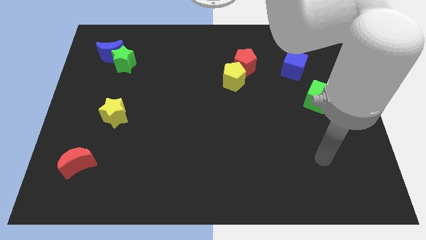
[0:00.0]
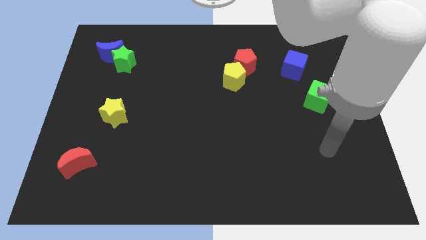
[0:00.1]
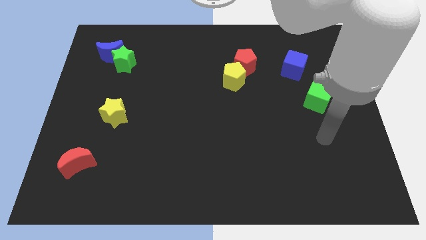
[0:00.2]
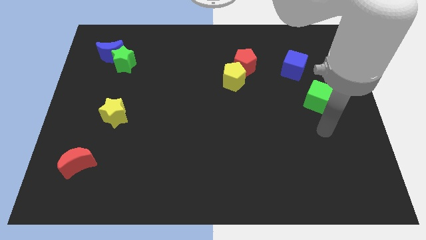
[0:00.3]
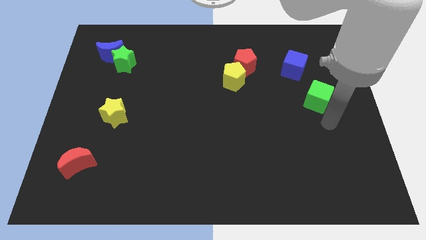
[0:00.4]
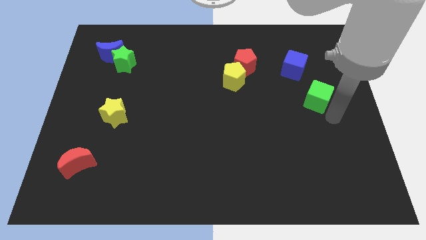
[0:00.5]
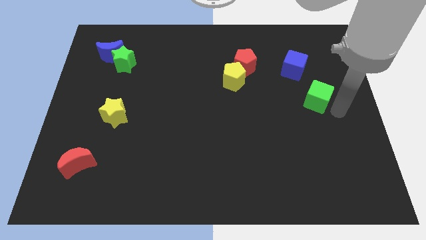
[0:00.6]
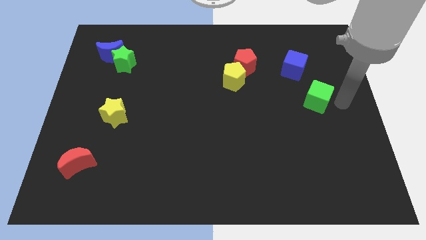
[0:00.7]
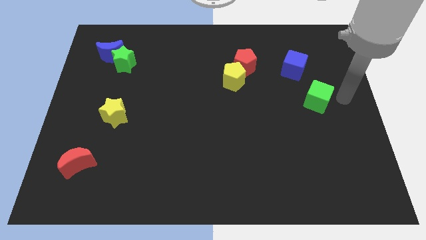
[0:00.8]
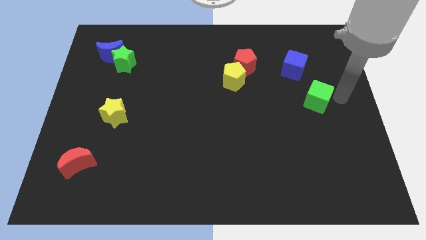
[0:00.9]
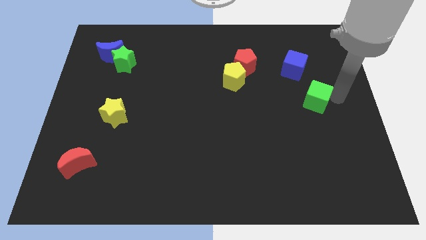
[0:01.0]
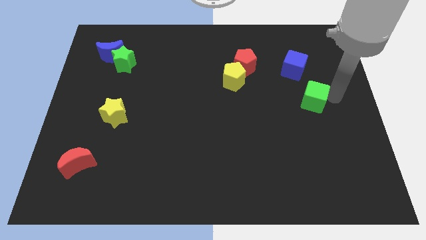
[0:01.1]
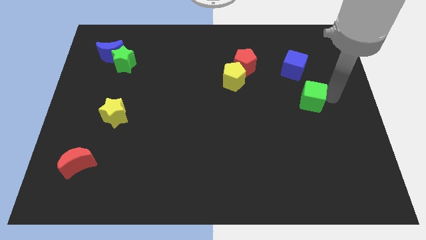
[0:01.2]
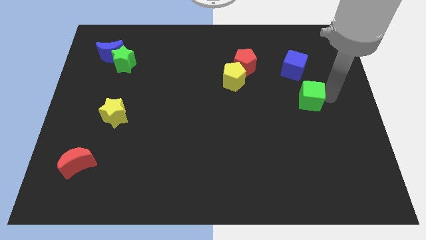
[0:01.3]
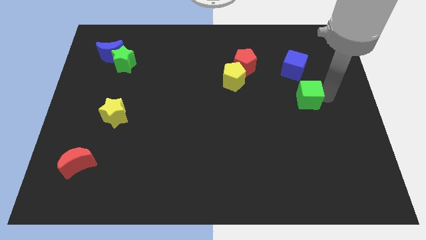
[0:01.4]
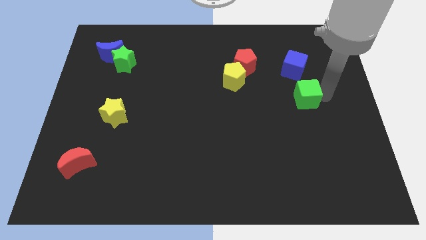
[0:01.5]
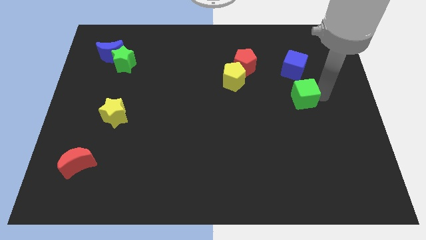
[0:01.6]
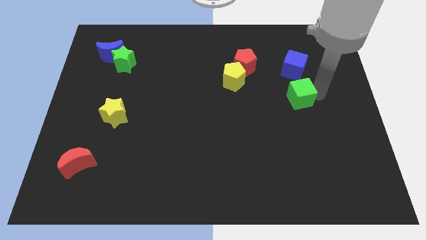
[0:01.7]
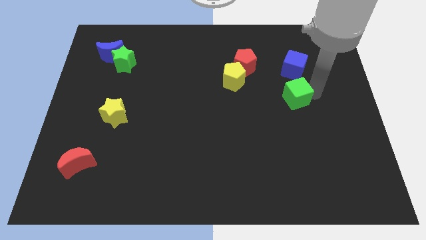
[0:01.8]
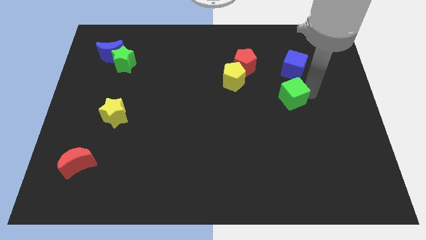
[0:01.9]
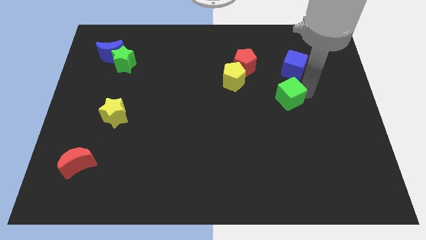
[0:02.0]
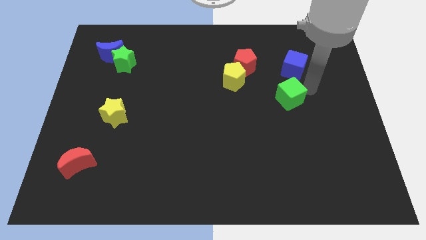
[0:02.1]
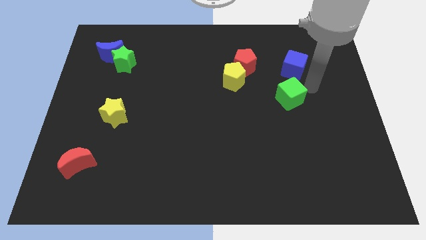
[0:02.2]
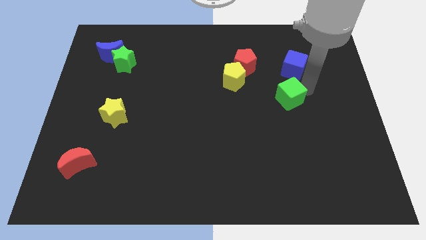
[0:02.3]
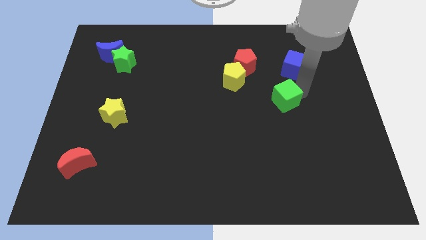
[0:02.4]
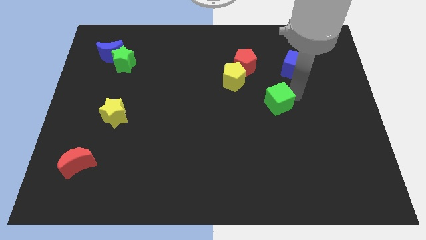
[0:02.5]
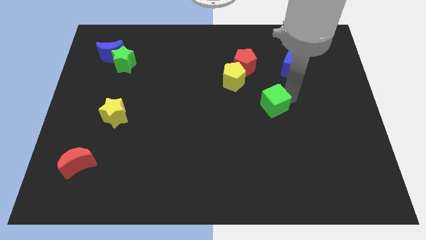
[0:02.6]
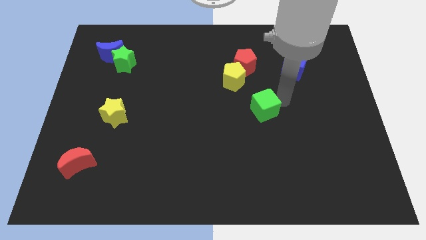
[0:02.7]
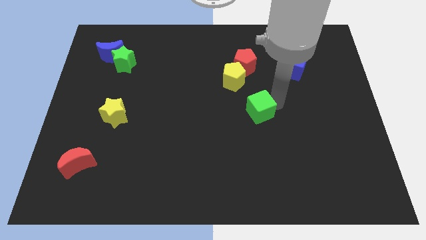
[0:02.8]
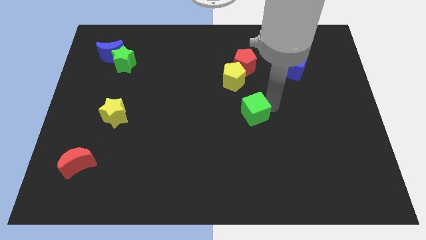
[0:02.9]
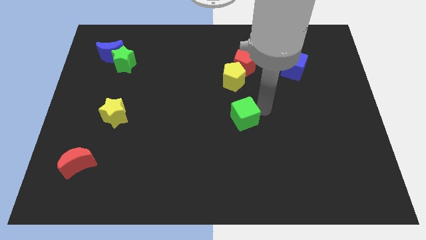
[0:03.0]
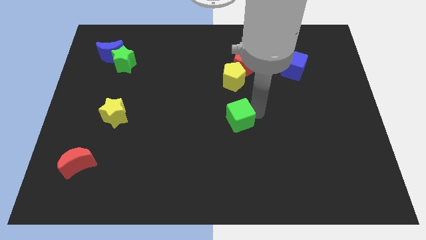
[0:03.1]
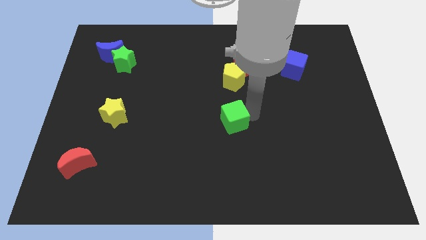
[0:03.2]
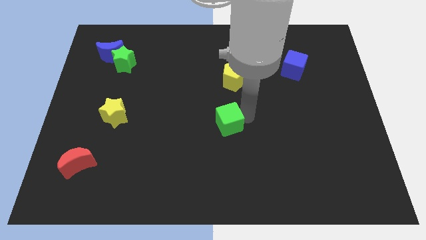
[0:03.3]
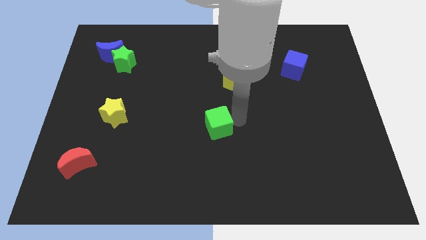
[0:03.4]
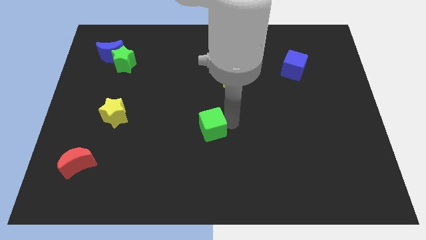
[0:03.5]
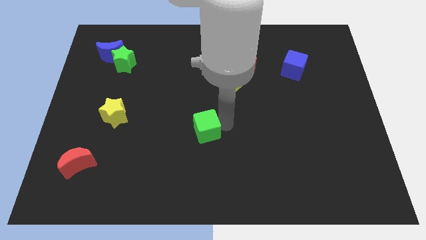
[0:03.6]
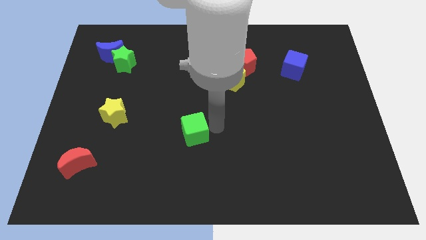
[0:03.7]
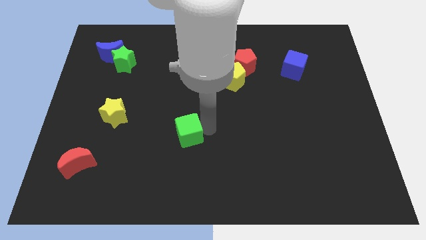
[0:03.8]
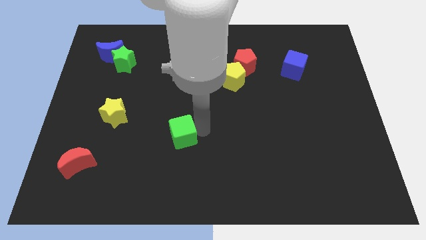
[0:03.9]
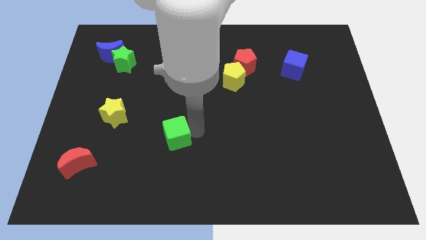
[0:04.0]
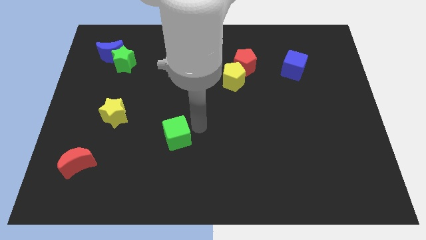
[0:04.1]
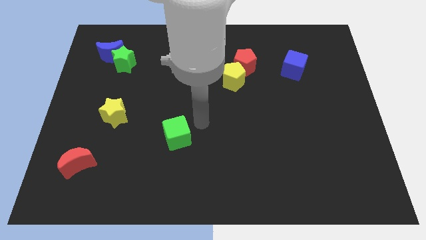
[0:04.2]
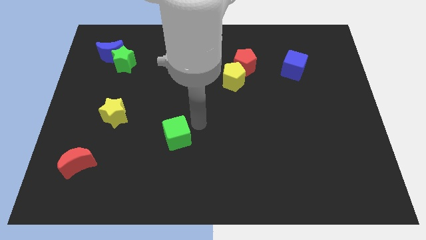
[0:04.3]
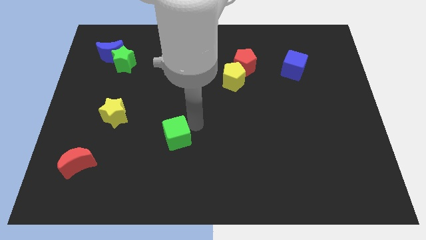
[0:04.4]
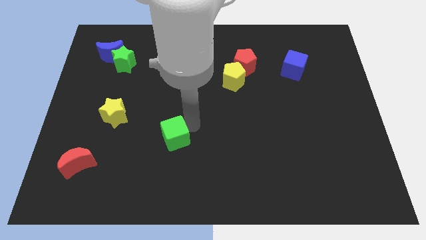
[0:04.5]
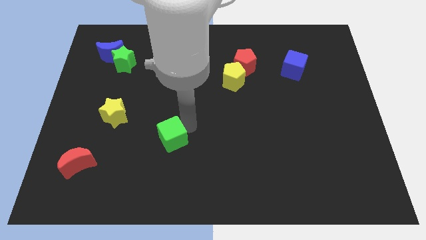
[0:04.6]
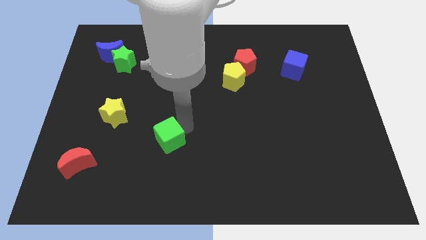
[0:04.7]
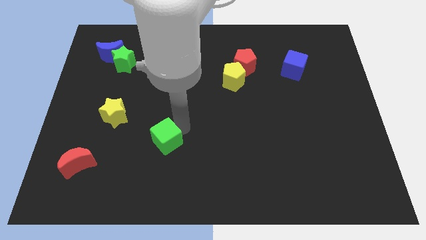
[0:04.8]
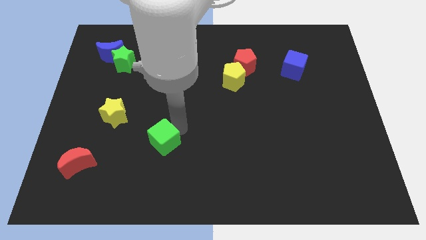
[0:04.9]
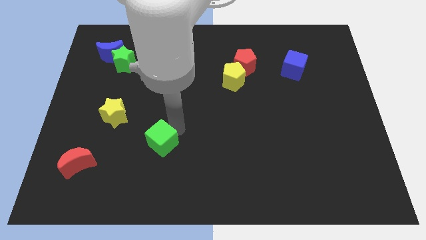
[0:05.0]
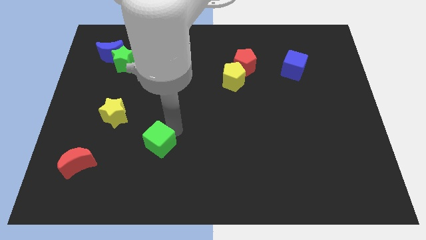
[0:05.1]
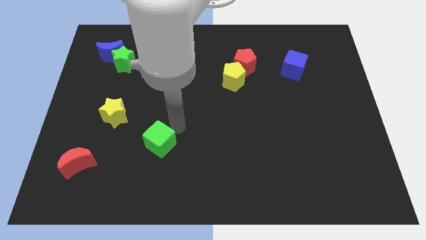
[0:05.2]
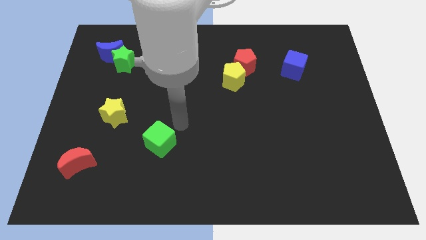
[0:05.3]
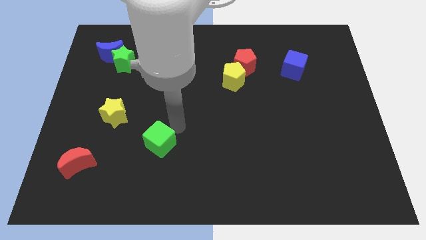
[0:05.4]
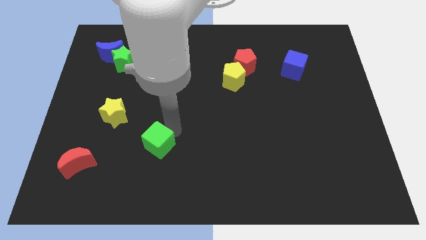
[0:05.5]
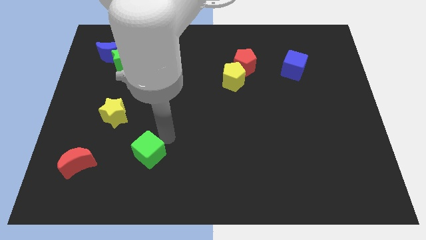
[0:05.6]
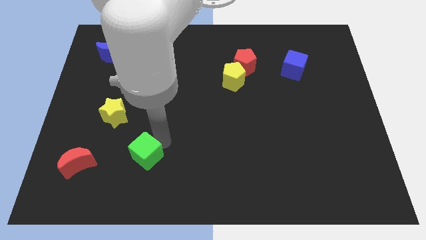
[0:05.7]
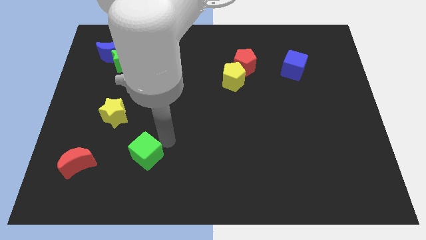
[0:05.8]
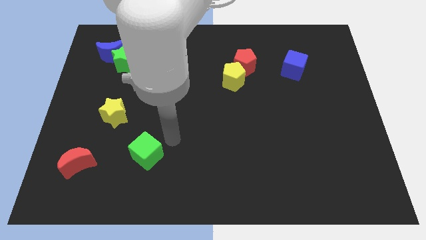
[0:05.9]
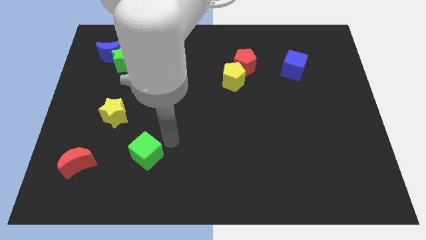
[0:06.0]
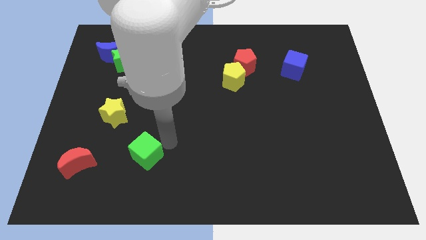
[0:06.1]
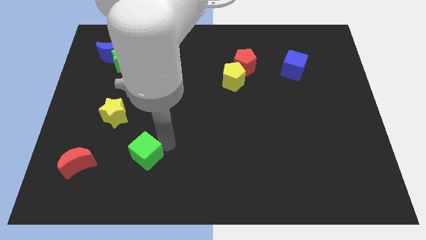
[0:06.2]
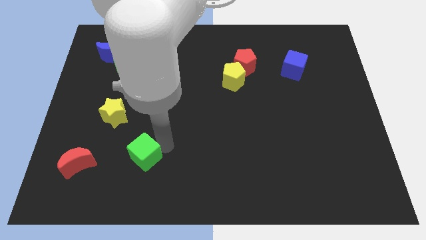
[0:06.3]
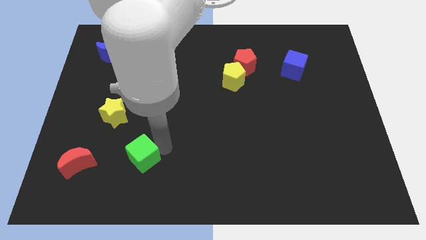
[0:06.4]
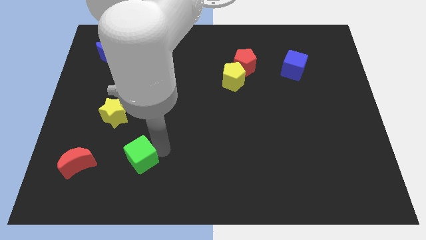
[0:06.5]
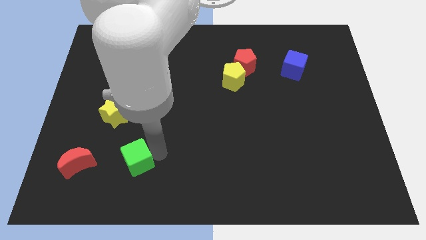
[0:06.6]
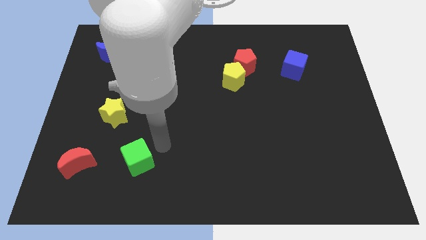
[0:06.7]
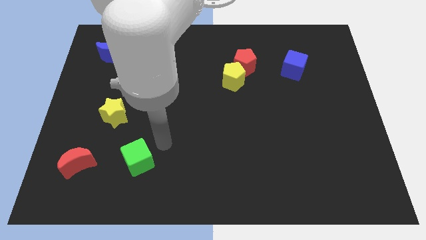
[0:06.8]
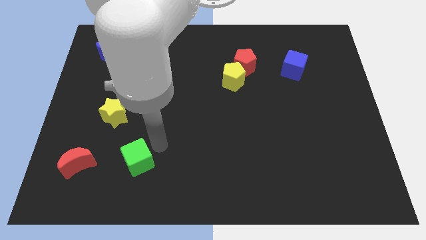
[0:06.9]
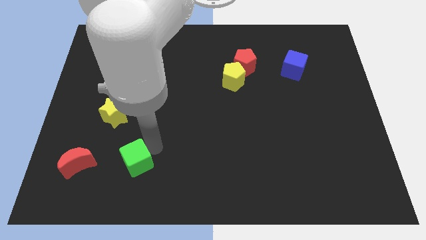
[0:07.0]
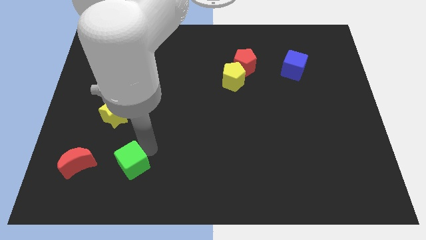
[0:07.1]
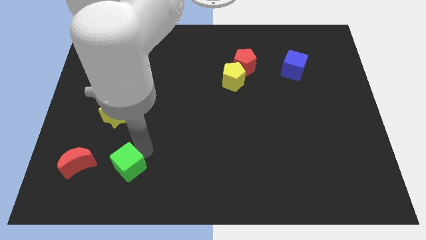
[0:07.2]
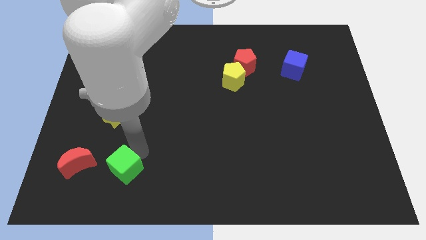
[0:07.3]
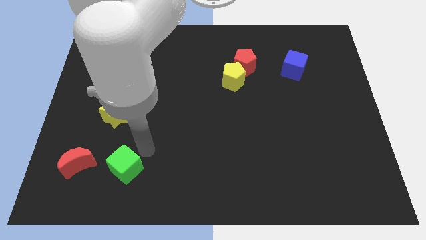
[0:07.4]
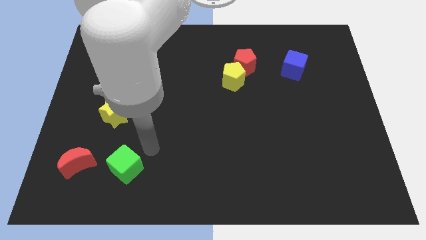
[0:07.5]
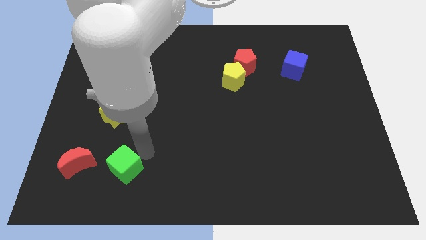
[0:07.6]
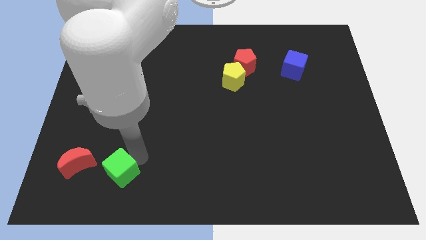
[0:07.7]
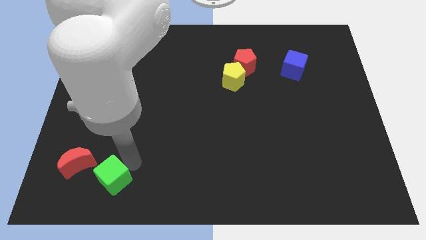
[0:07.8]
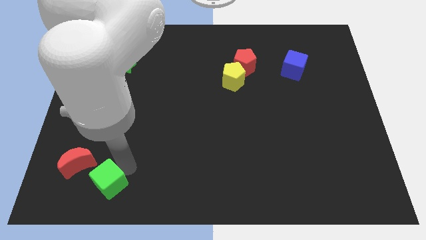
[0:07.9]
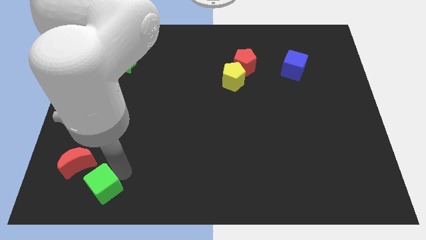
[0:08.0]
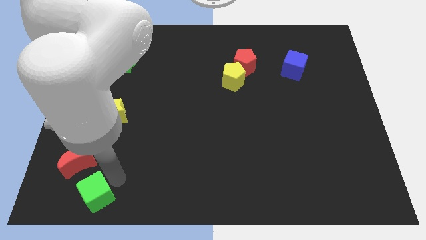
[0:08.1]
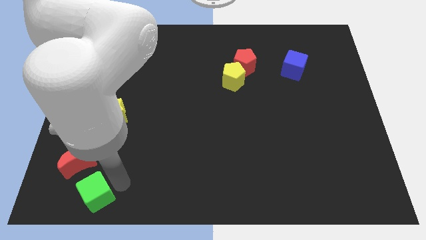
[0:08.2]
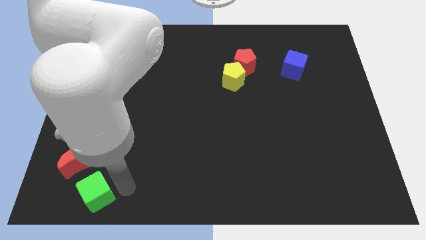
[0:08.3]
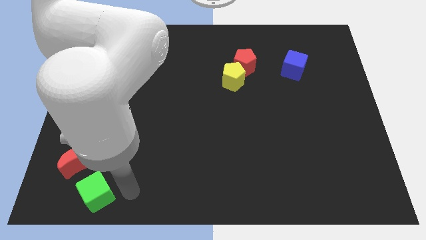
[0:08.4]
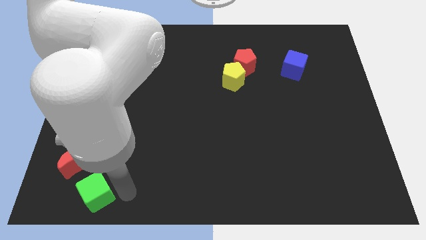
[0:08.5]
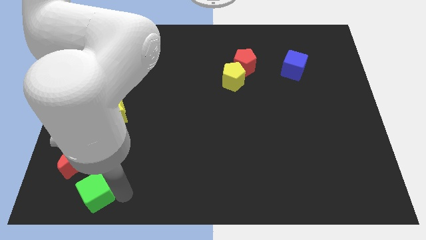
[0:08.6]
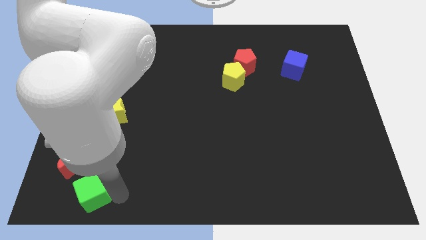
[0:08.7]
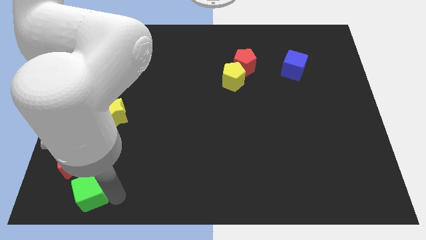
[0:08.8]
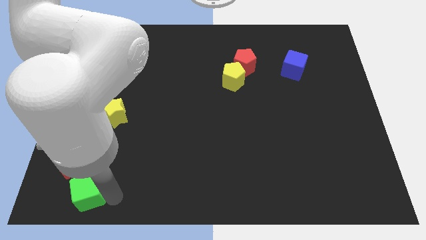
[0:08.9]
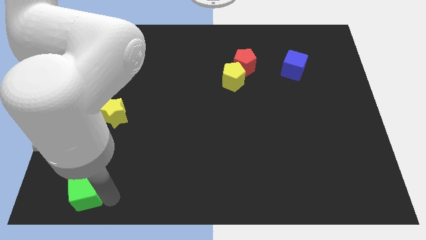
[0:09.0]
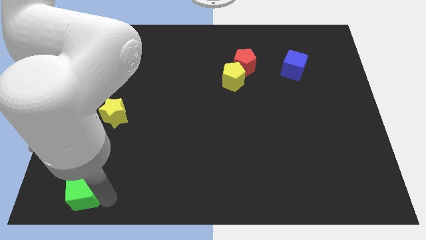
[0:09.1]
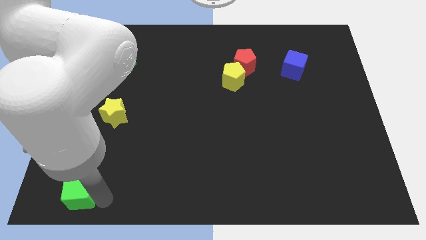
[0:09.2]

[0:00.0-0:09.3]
move the green cube to the lower left corner
